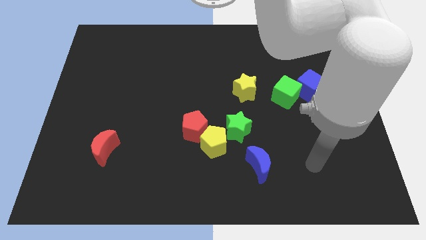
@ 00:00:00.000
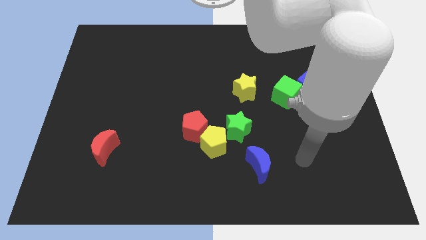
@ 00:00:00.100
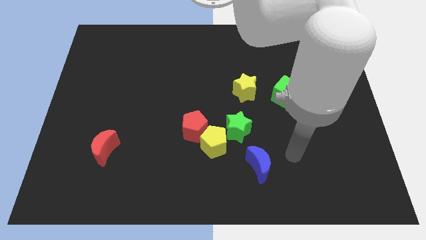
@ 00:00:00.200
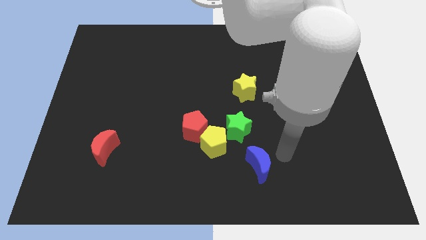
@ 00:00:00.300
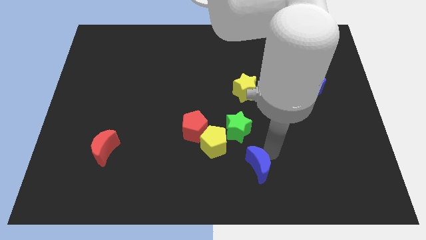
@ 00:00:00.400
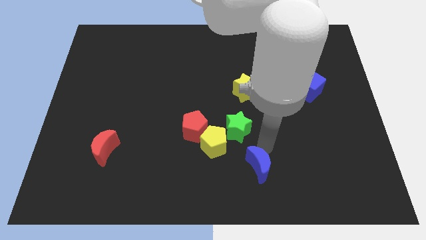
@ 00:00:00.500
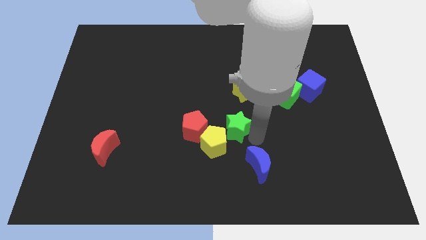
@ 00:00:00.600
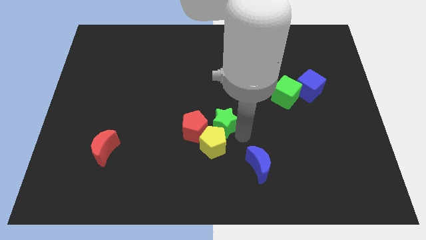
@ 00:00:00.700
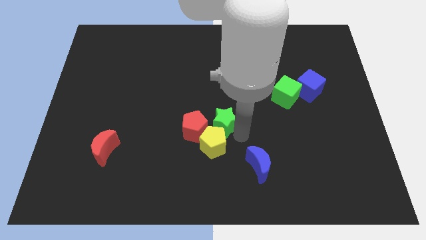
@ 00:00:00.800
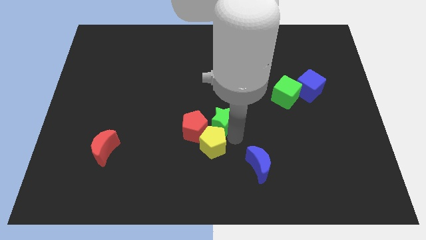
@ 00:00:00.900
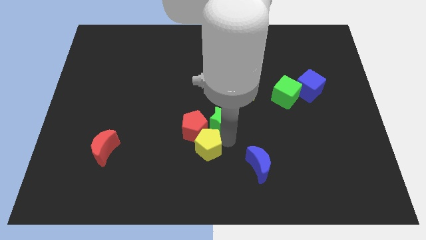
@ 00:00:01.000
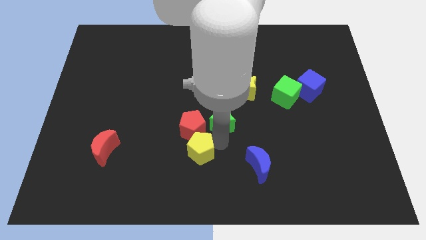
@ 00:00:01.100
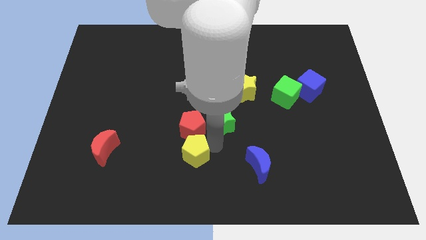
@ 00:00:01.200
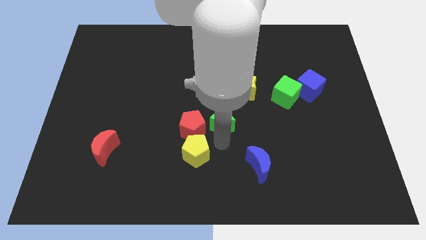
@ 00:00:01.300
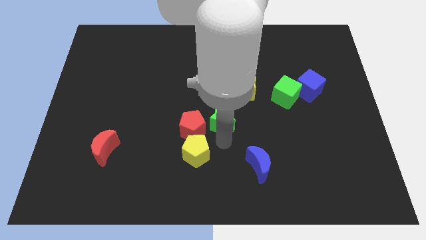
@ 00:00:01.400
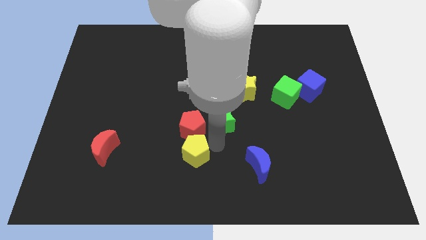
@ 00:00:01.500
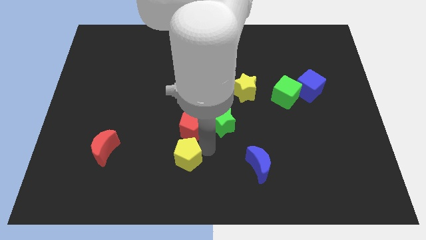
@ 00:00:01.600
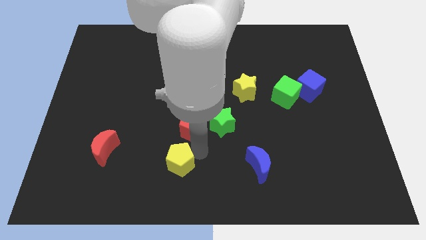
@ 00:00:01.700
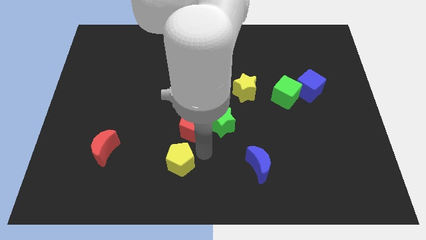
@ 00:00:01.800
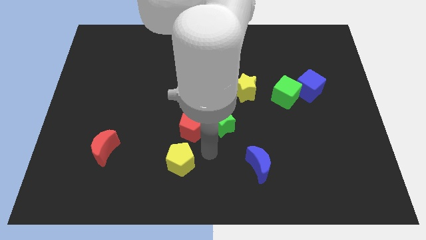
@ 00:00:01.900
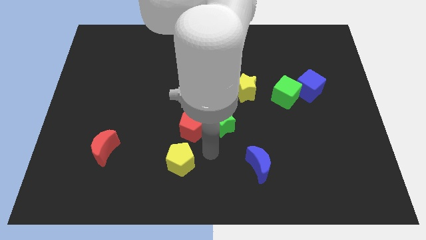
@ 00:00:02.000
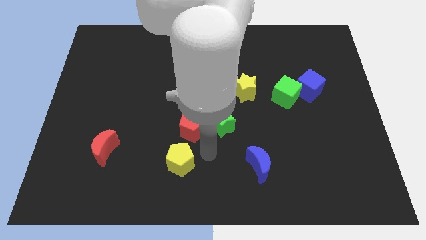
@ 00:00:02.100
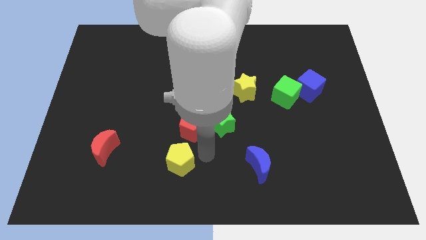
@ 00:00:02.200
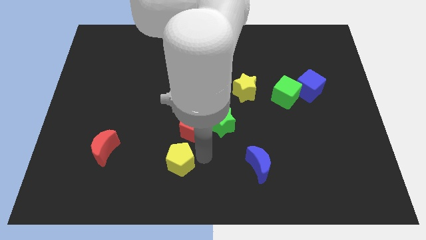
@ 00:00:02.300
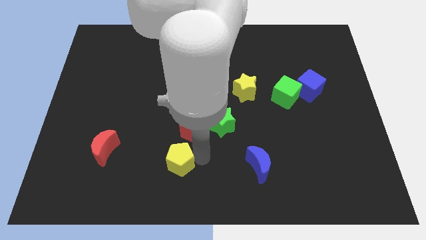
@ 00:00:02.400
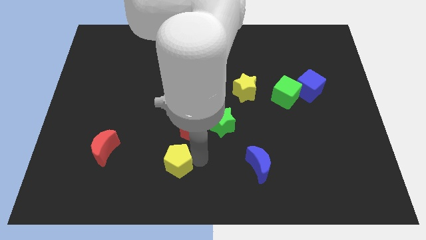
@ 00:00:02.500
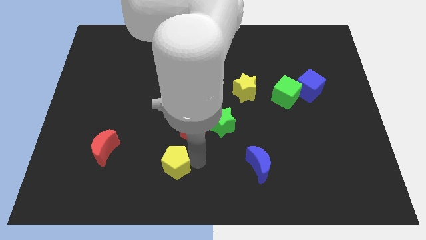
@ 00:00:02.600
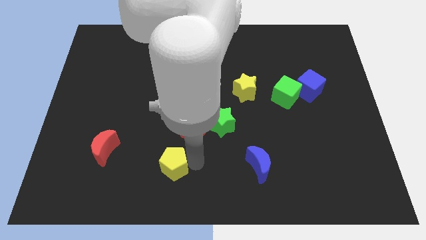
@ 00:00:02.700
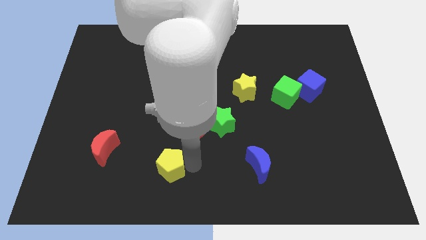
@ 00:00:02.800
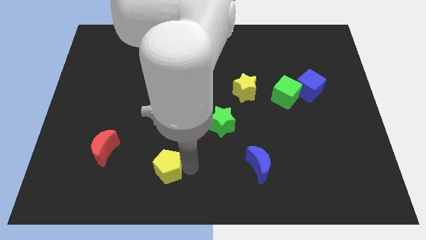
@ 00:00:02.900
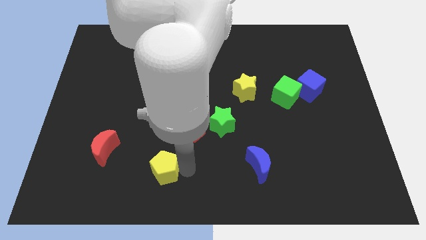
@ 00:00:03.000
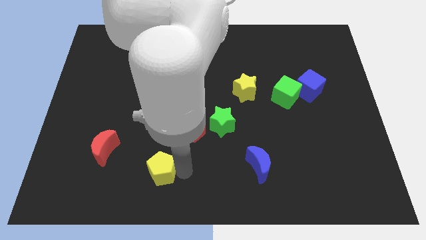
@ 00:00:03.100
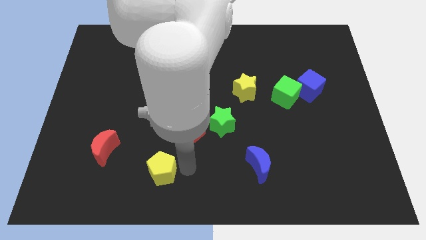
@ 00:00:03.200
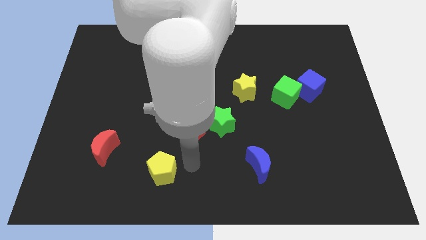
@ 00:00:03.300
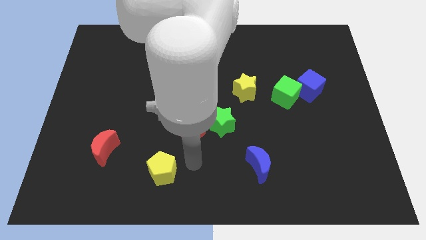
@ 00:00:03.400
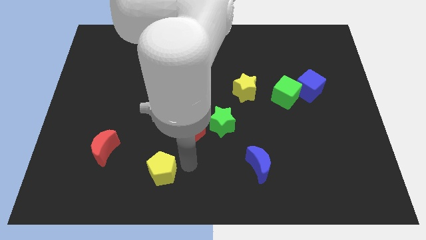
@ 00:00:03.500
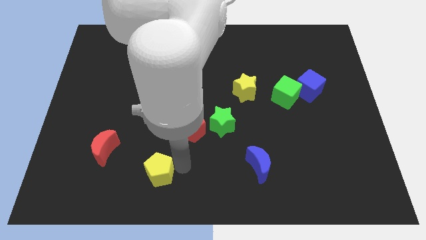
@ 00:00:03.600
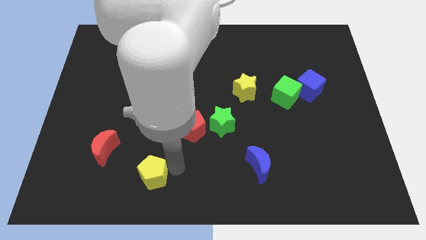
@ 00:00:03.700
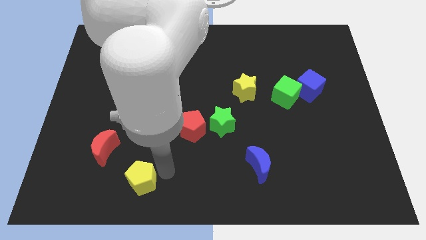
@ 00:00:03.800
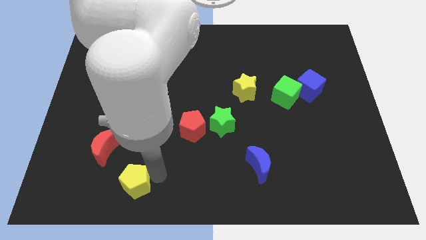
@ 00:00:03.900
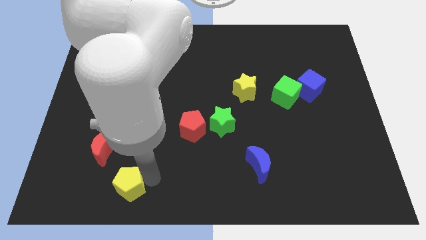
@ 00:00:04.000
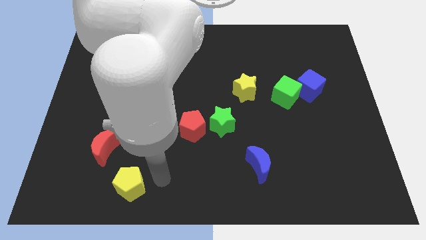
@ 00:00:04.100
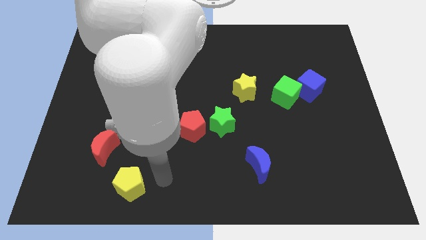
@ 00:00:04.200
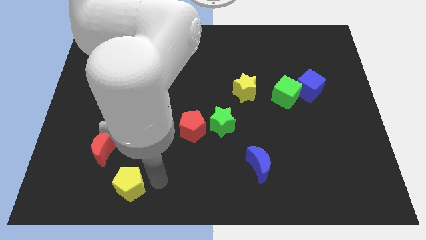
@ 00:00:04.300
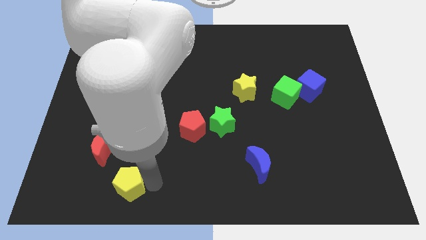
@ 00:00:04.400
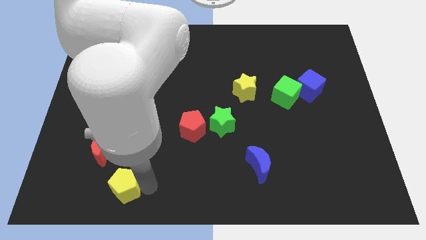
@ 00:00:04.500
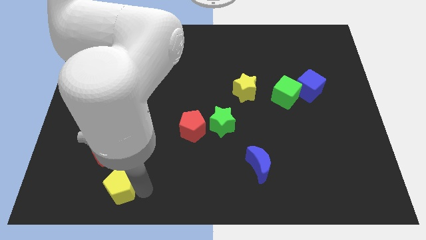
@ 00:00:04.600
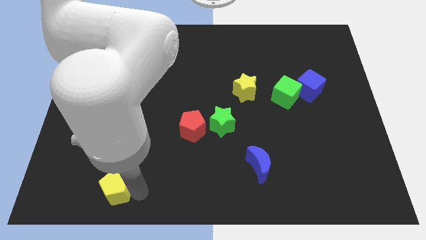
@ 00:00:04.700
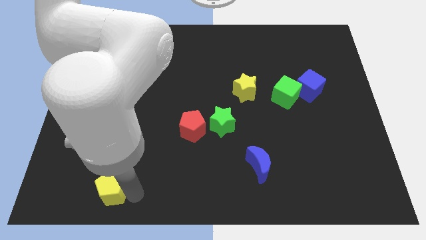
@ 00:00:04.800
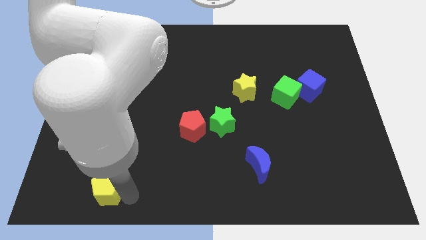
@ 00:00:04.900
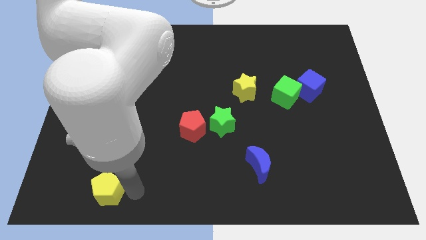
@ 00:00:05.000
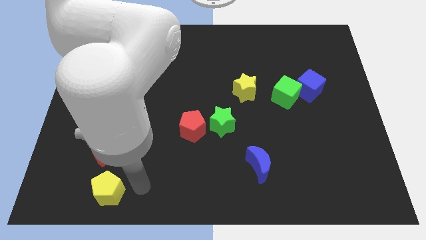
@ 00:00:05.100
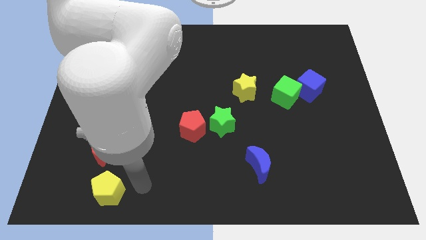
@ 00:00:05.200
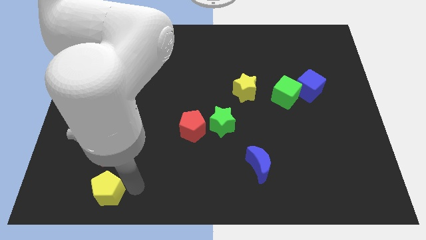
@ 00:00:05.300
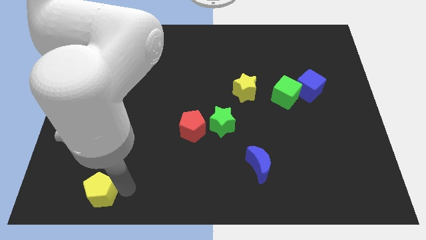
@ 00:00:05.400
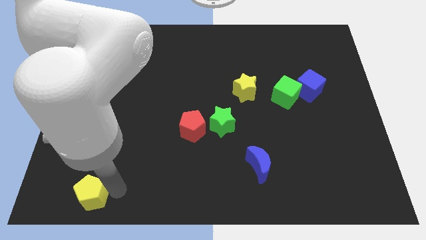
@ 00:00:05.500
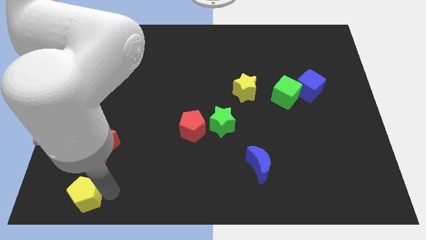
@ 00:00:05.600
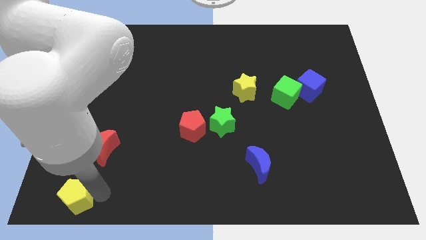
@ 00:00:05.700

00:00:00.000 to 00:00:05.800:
move the yellow pentagon to the bottom left corner
